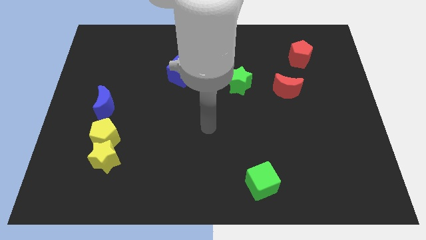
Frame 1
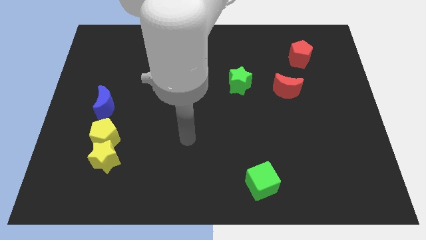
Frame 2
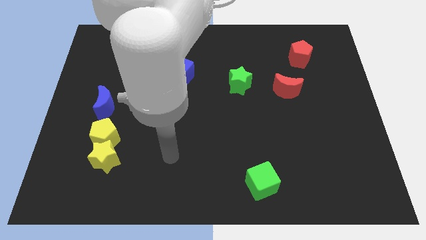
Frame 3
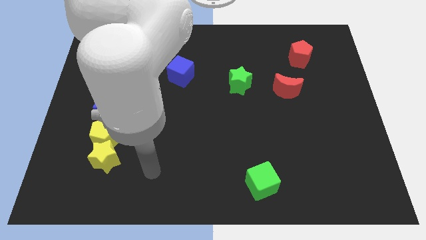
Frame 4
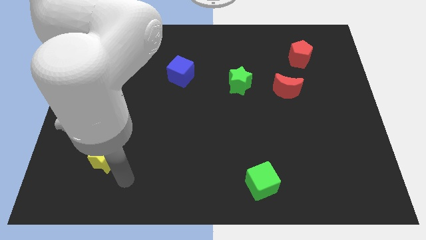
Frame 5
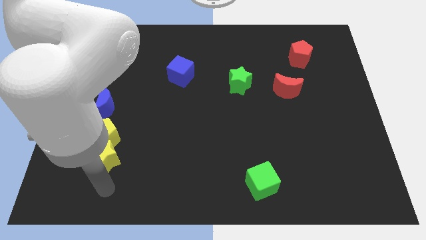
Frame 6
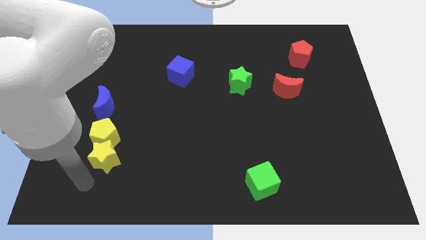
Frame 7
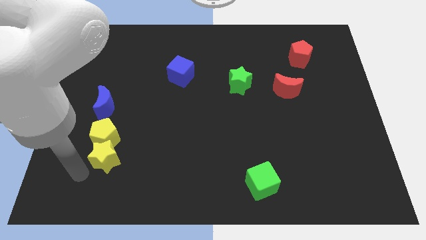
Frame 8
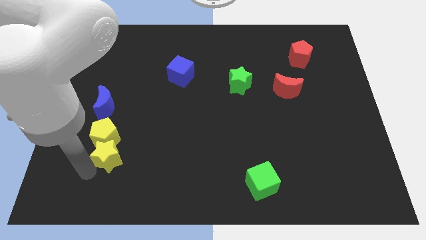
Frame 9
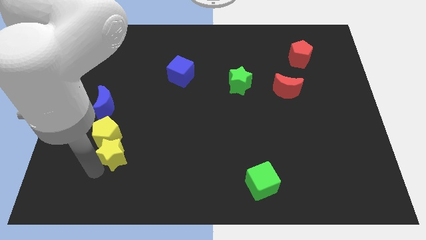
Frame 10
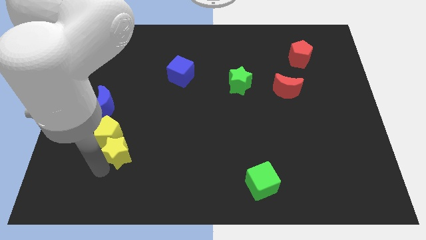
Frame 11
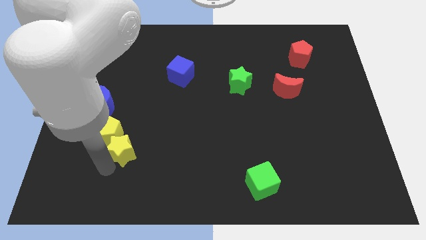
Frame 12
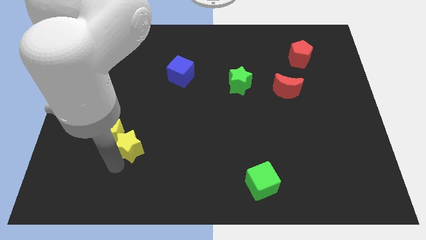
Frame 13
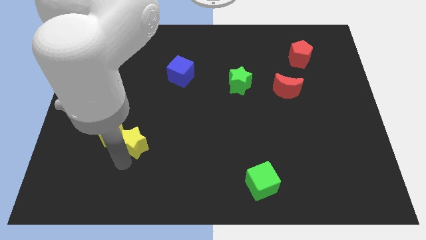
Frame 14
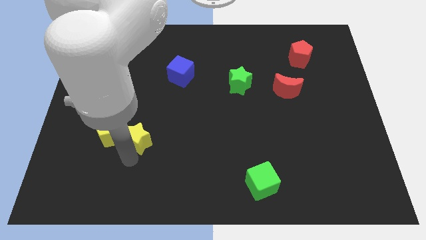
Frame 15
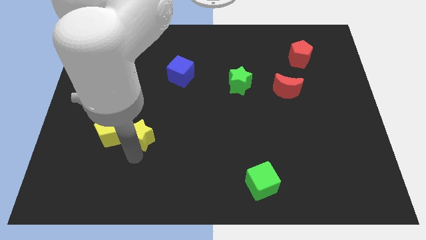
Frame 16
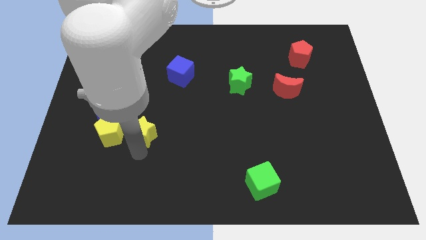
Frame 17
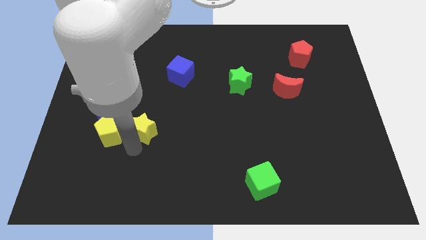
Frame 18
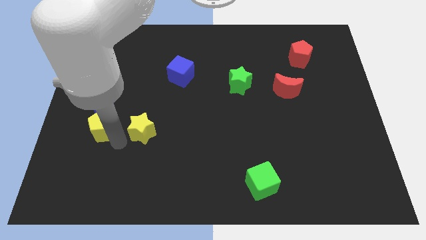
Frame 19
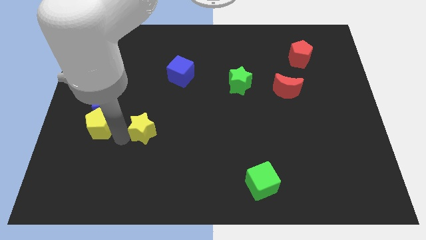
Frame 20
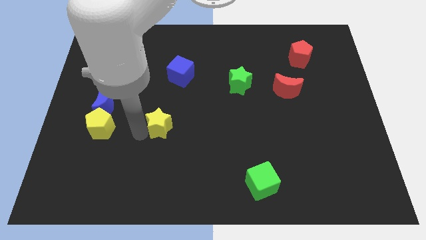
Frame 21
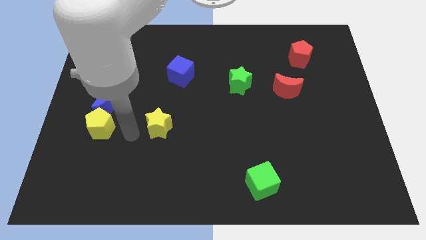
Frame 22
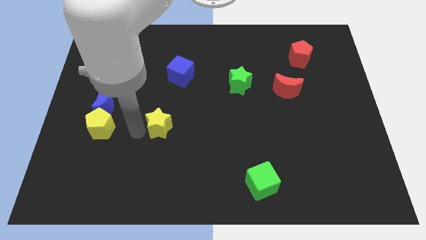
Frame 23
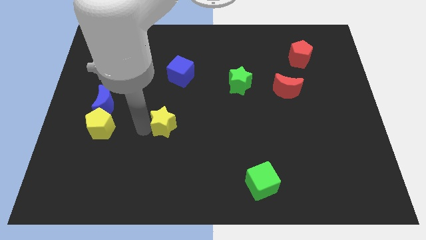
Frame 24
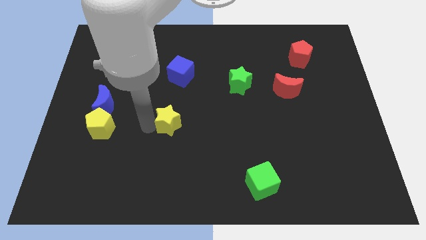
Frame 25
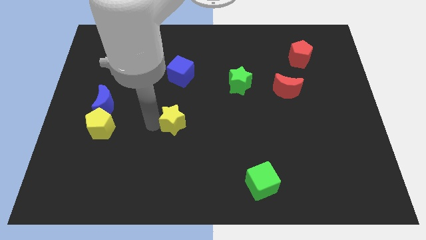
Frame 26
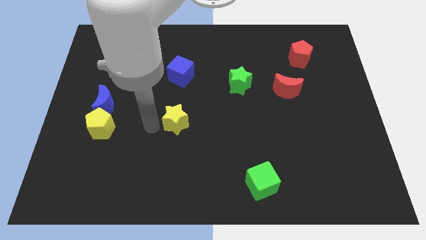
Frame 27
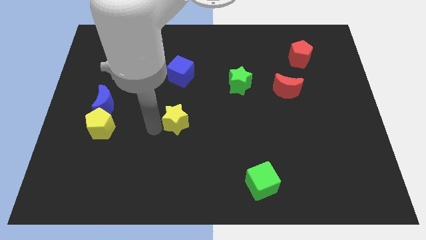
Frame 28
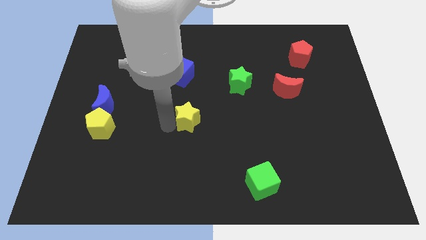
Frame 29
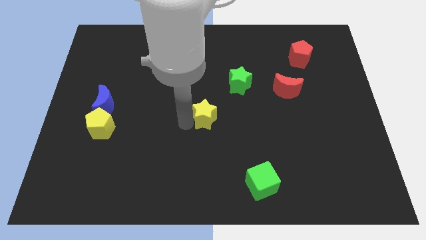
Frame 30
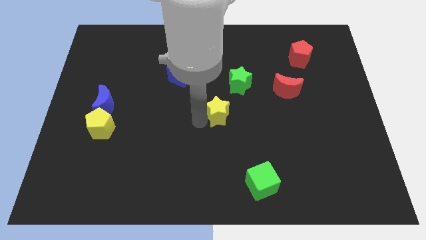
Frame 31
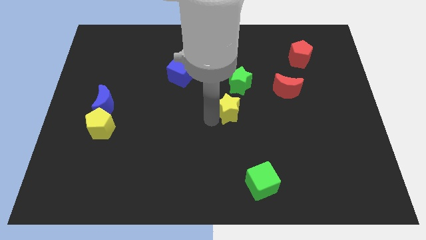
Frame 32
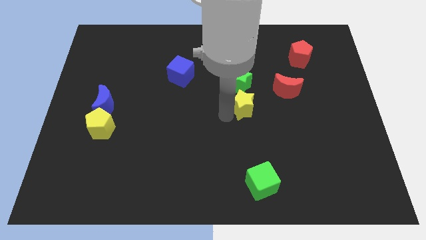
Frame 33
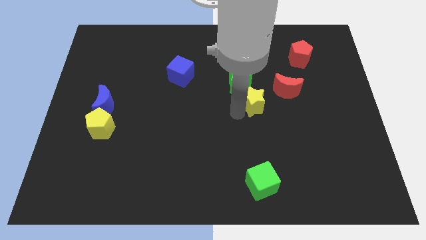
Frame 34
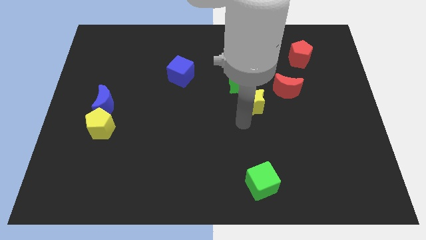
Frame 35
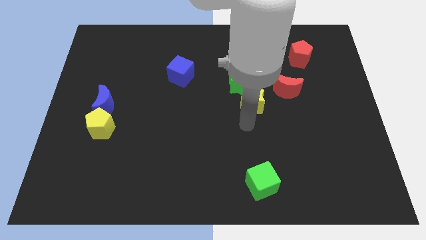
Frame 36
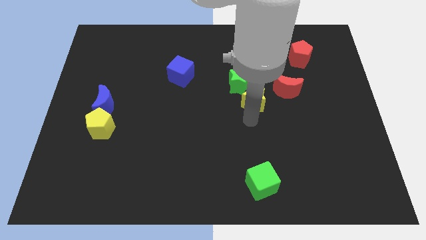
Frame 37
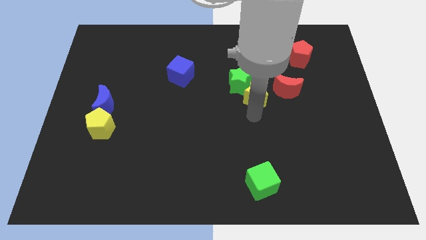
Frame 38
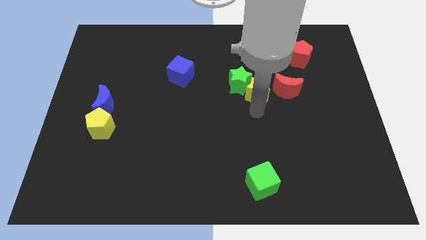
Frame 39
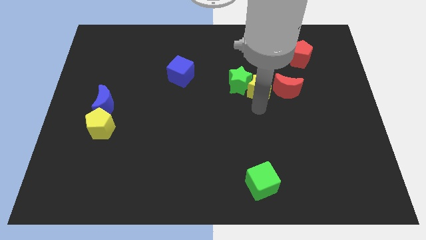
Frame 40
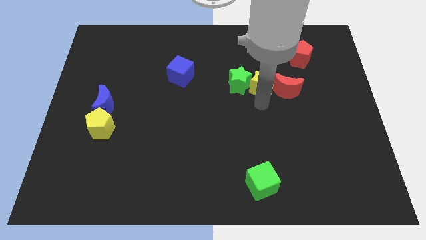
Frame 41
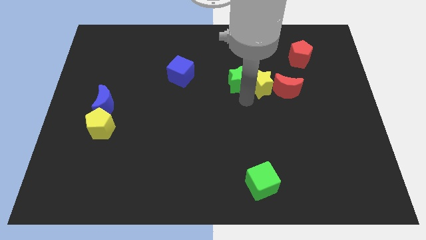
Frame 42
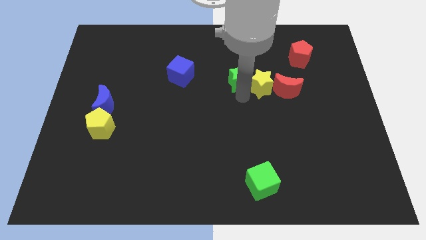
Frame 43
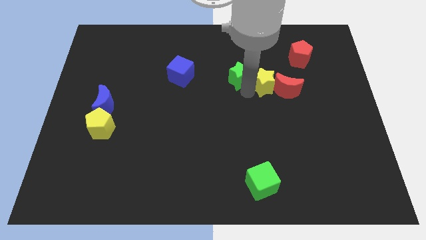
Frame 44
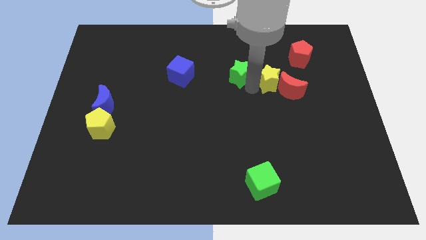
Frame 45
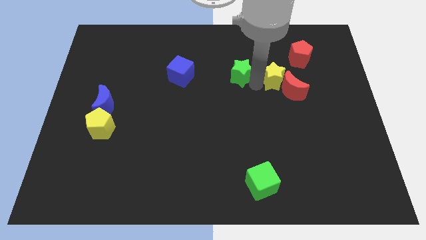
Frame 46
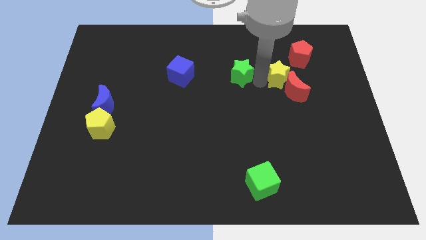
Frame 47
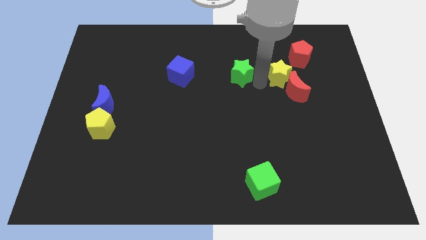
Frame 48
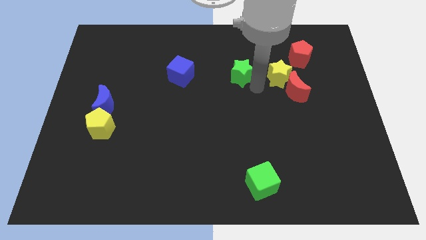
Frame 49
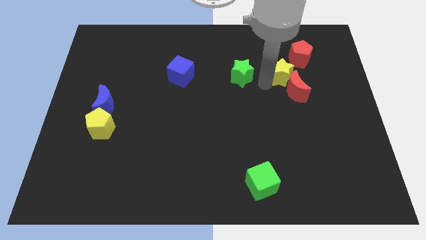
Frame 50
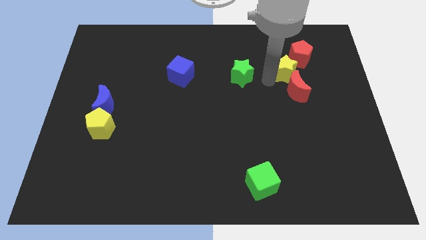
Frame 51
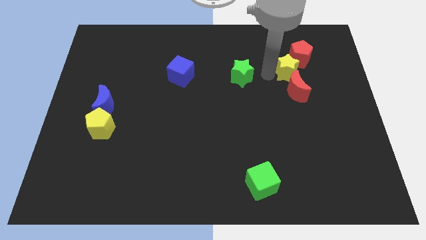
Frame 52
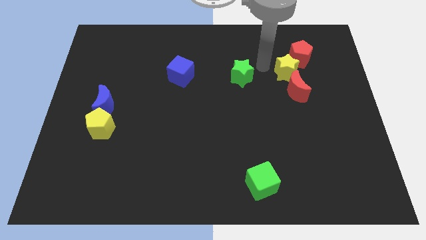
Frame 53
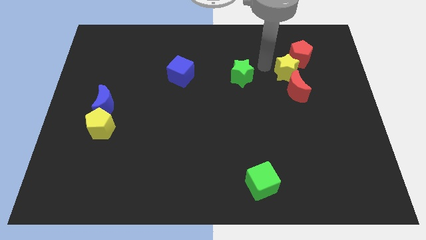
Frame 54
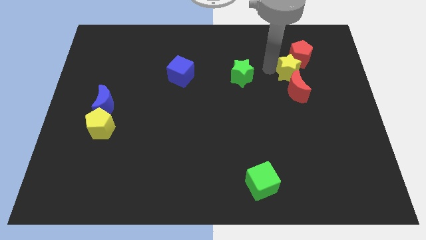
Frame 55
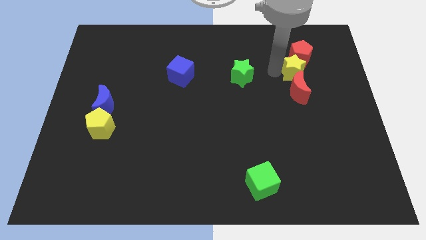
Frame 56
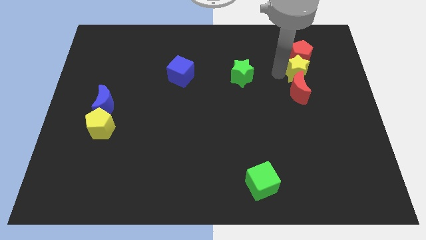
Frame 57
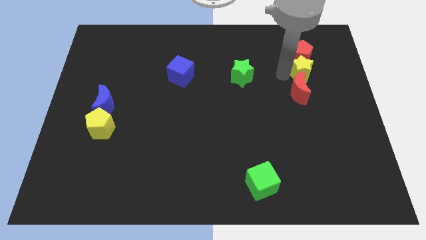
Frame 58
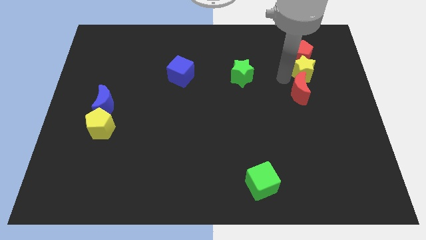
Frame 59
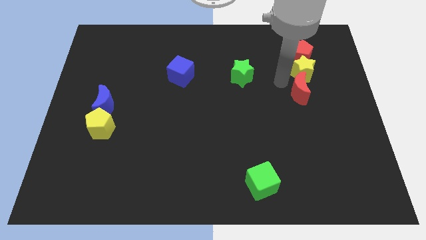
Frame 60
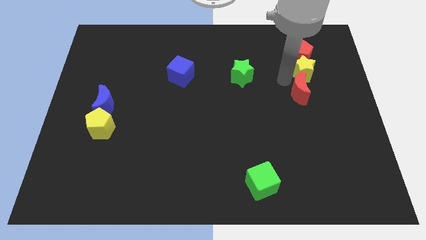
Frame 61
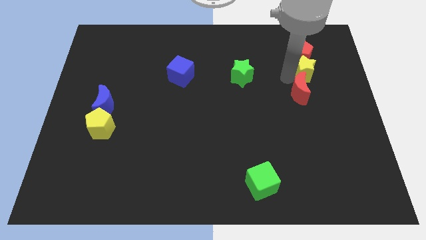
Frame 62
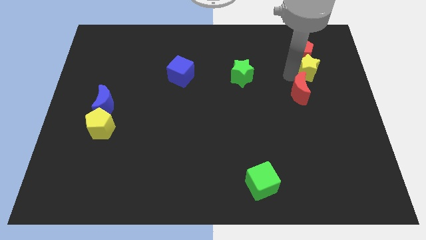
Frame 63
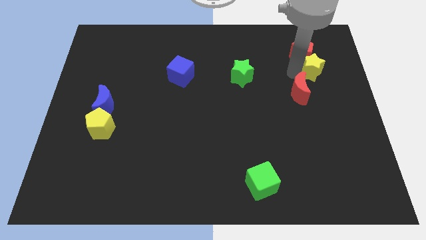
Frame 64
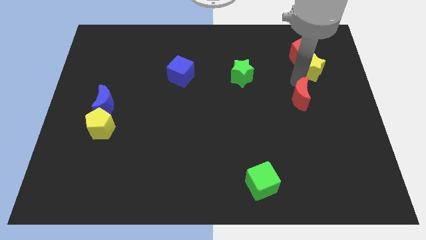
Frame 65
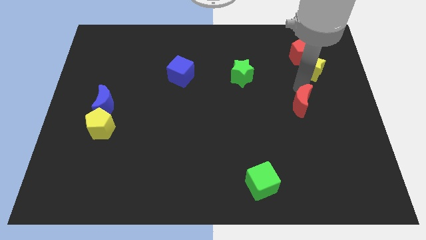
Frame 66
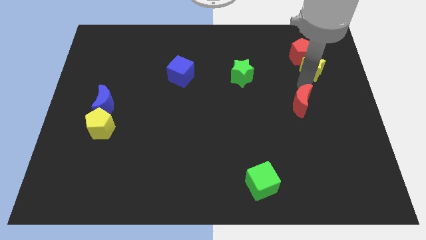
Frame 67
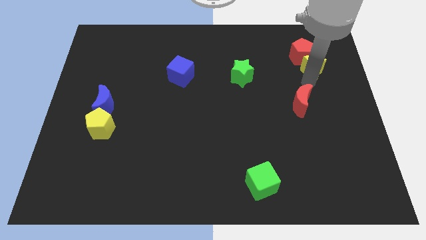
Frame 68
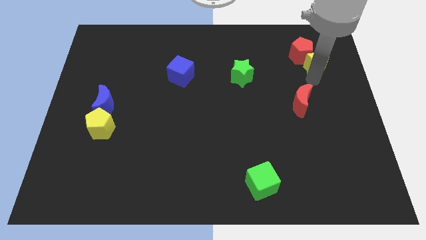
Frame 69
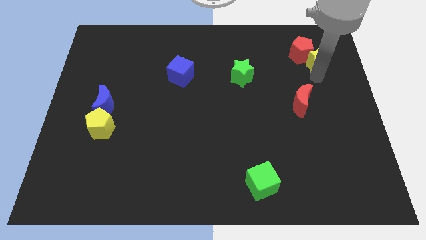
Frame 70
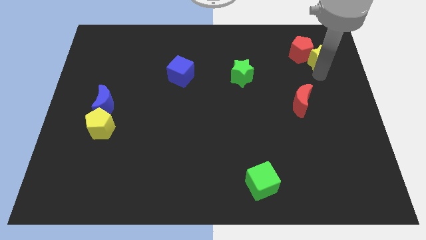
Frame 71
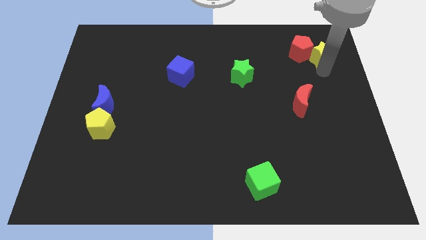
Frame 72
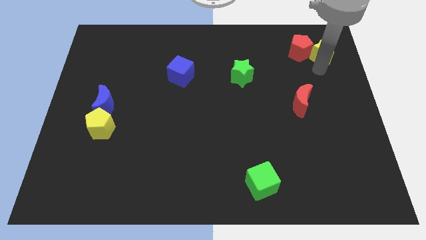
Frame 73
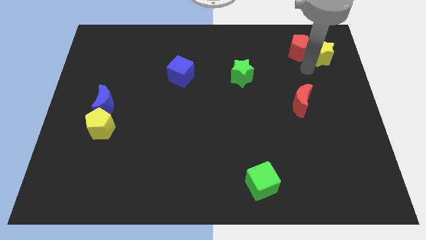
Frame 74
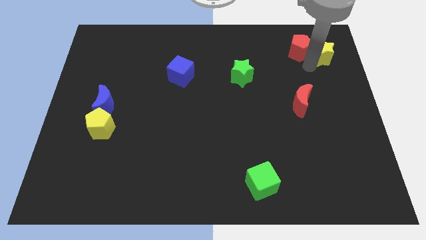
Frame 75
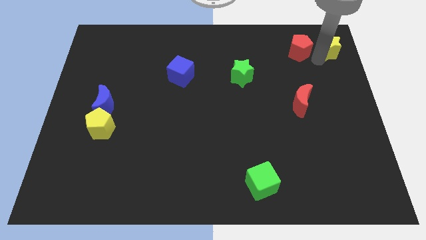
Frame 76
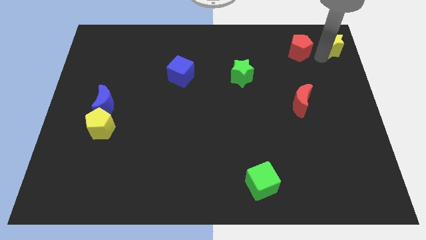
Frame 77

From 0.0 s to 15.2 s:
push the yellow star to the top right of the board
